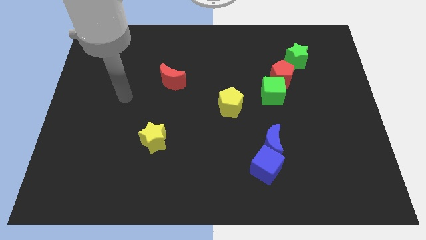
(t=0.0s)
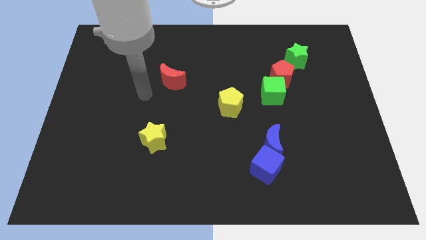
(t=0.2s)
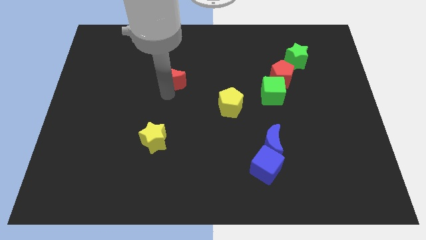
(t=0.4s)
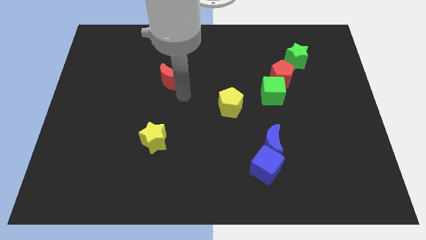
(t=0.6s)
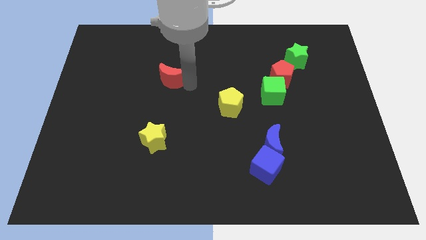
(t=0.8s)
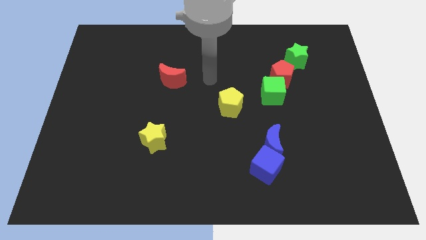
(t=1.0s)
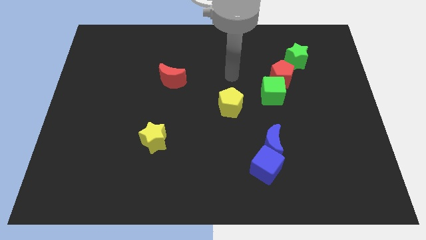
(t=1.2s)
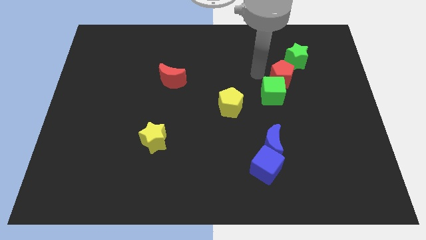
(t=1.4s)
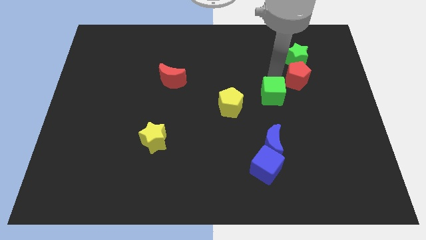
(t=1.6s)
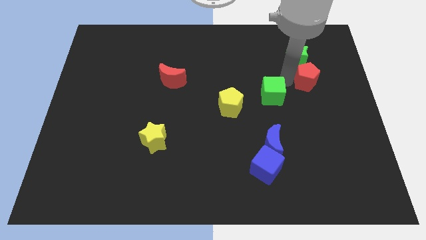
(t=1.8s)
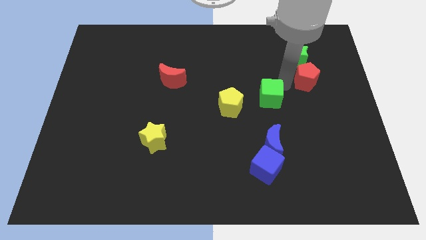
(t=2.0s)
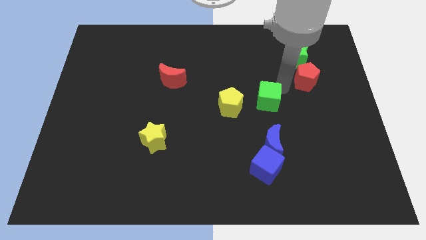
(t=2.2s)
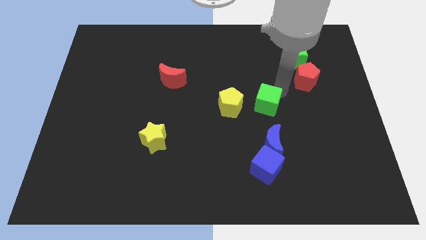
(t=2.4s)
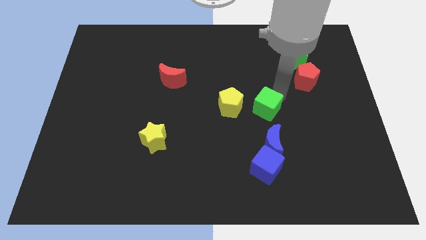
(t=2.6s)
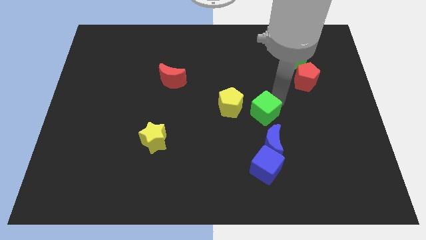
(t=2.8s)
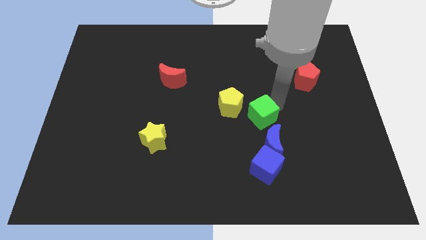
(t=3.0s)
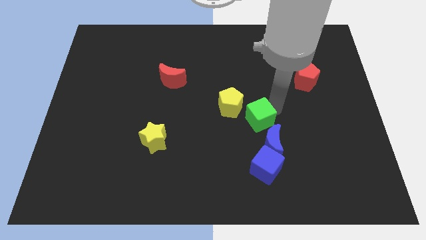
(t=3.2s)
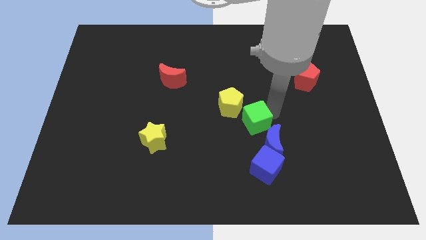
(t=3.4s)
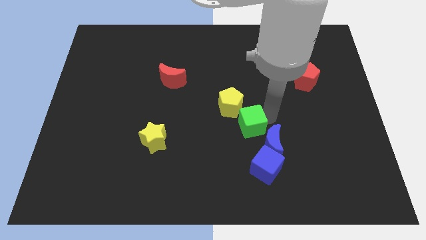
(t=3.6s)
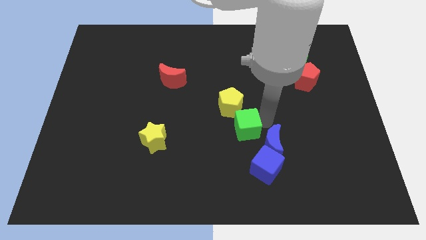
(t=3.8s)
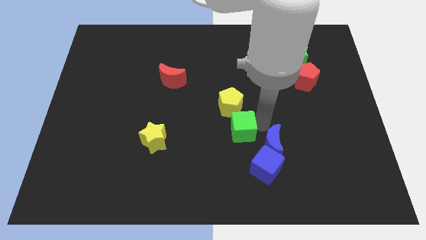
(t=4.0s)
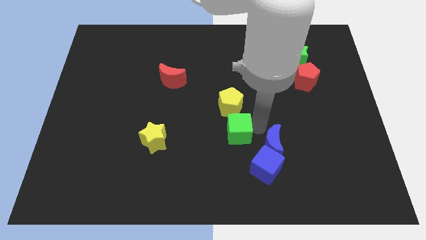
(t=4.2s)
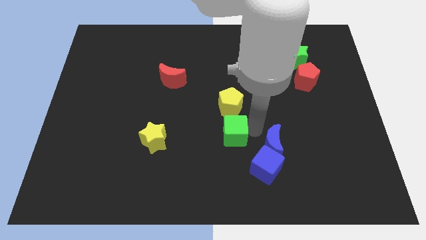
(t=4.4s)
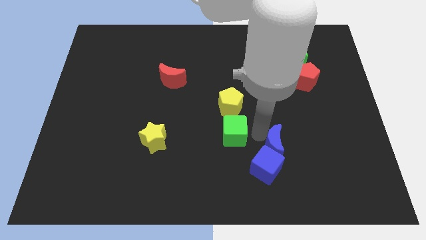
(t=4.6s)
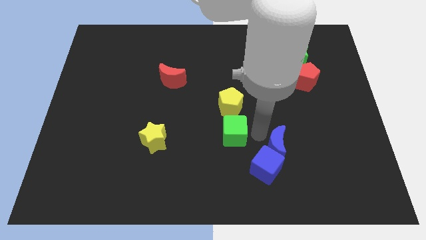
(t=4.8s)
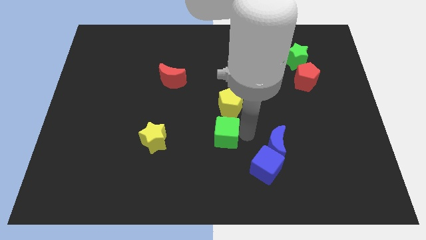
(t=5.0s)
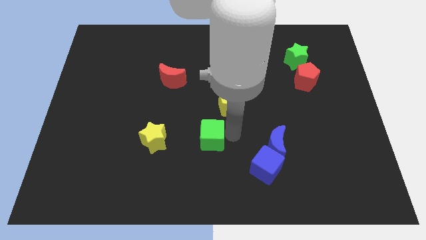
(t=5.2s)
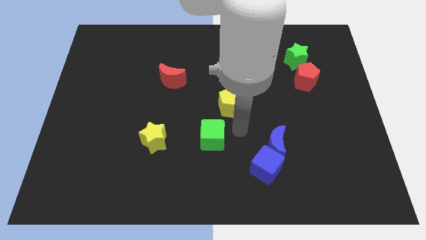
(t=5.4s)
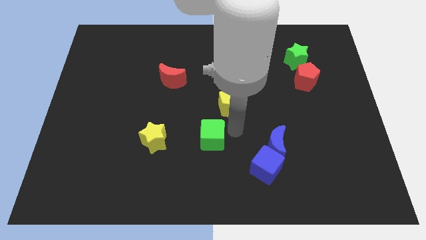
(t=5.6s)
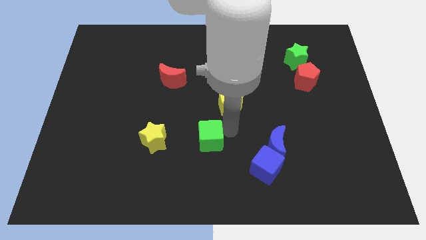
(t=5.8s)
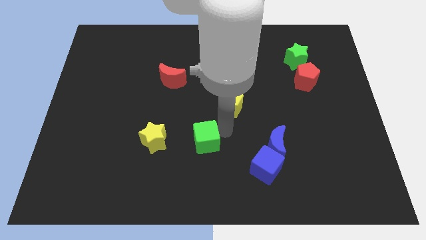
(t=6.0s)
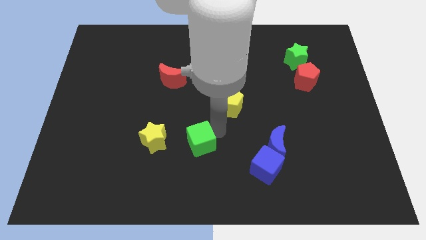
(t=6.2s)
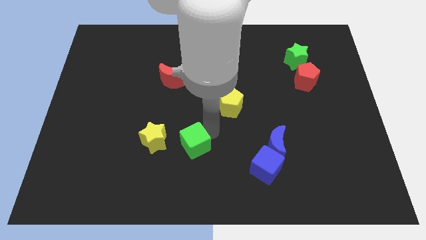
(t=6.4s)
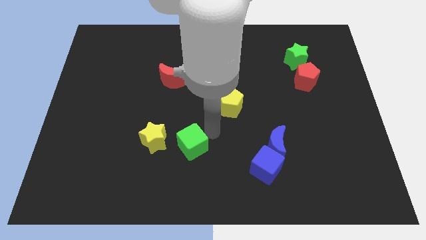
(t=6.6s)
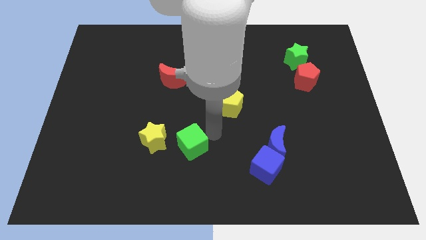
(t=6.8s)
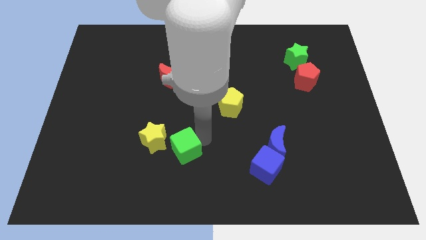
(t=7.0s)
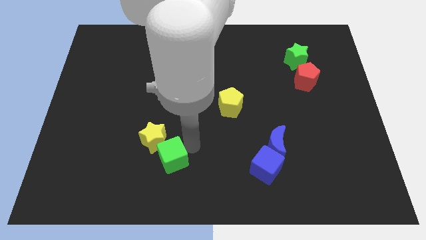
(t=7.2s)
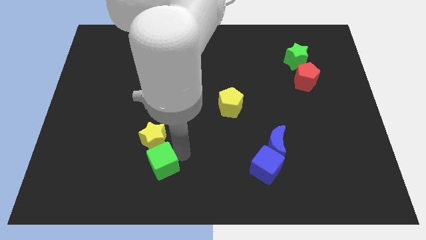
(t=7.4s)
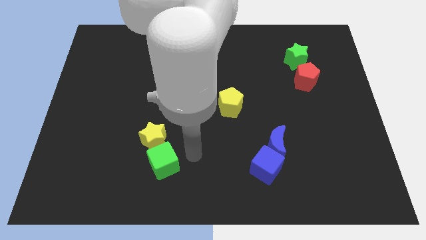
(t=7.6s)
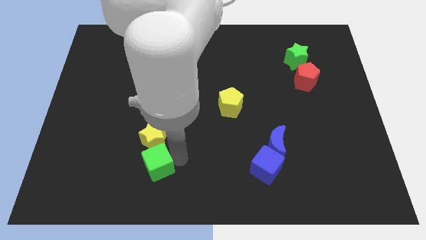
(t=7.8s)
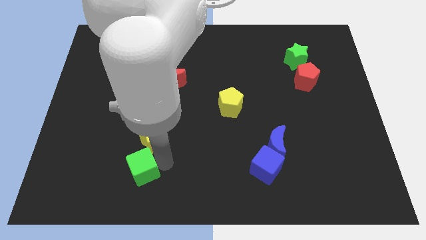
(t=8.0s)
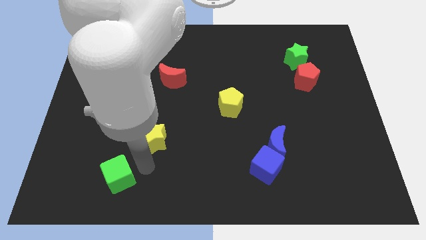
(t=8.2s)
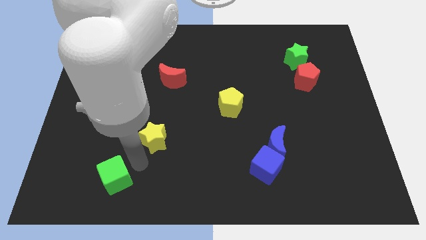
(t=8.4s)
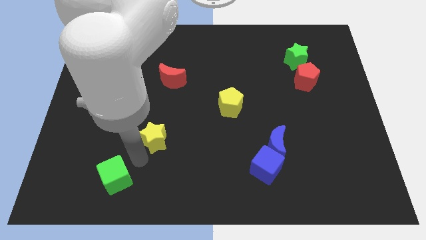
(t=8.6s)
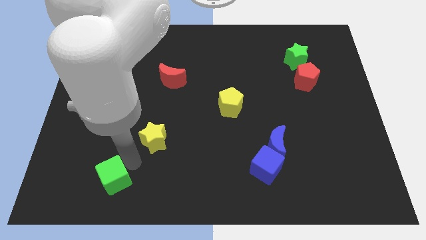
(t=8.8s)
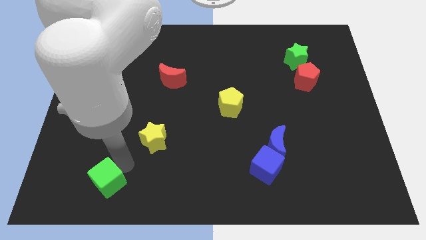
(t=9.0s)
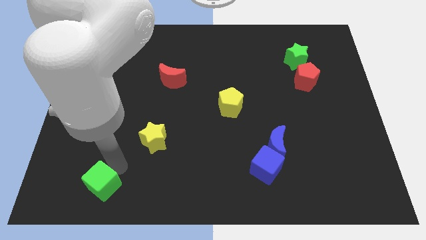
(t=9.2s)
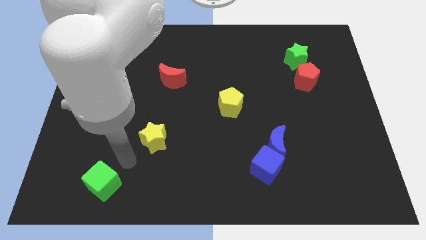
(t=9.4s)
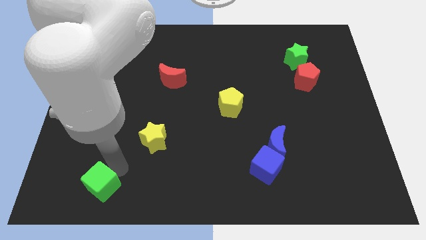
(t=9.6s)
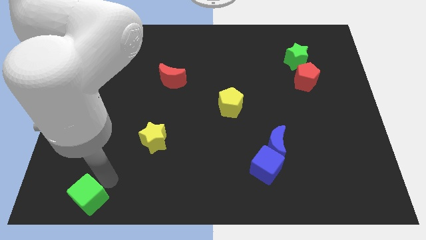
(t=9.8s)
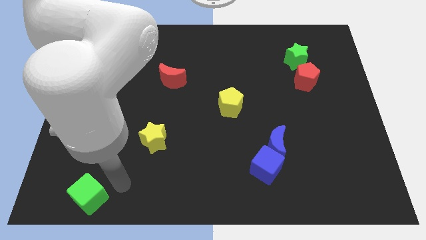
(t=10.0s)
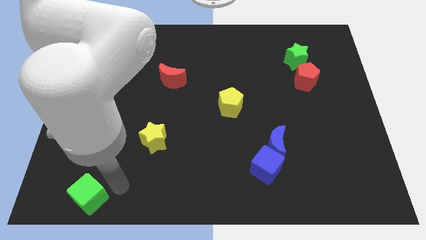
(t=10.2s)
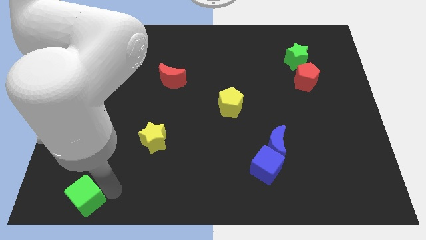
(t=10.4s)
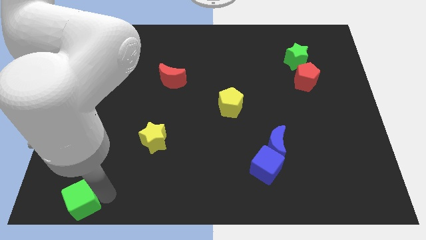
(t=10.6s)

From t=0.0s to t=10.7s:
put the green cube to the bottom left of the board

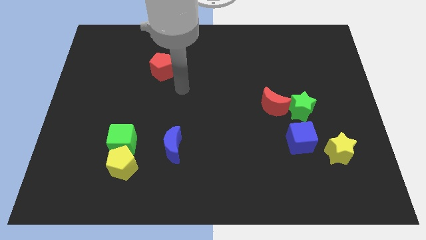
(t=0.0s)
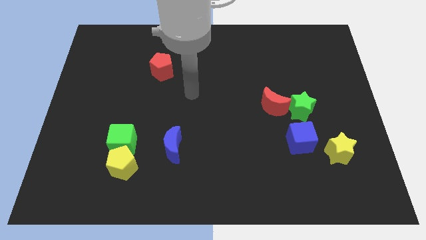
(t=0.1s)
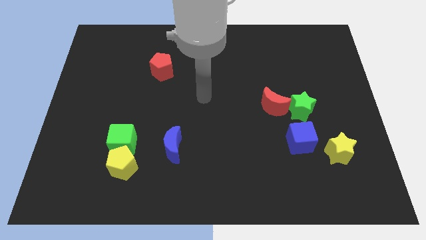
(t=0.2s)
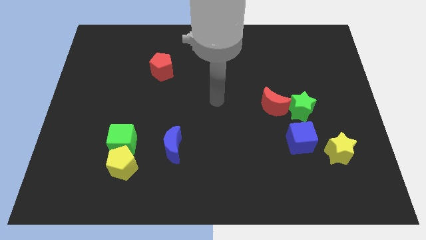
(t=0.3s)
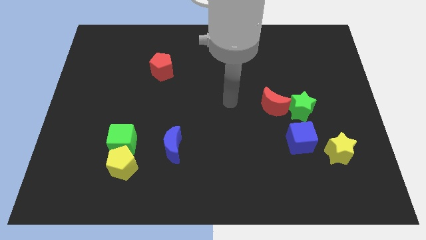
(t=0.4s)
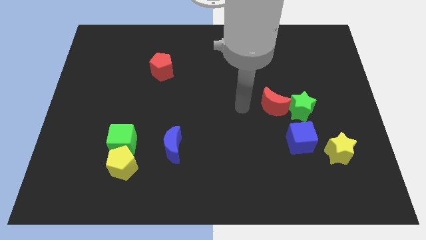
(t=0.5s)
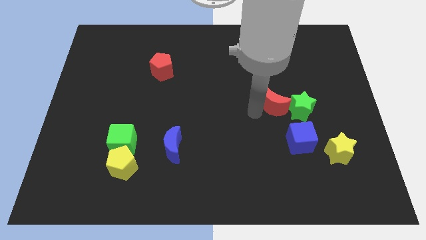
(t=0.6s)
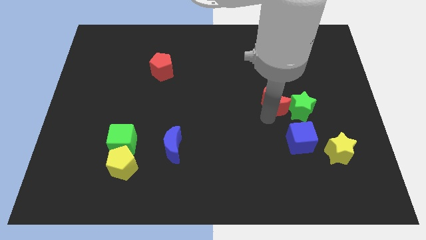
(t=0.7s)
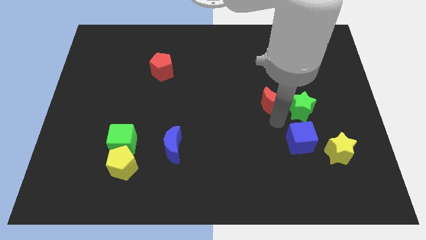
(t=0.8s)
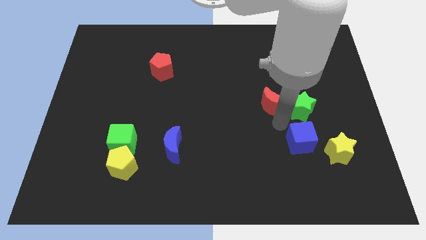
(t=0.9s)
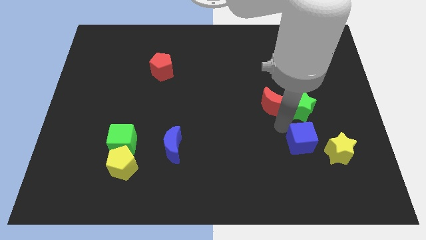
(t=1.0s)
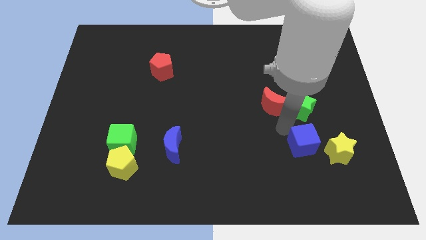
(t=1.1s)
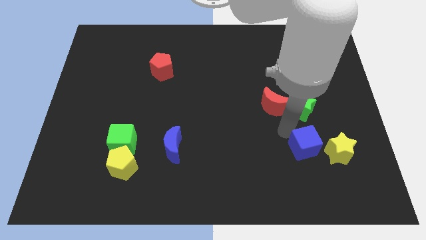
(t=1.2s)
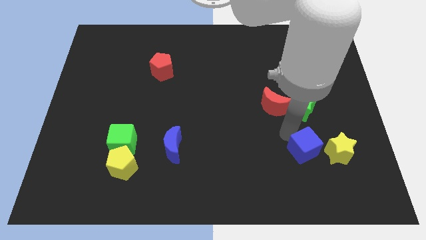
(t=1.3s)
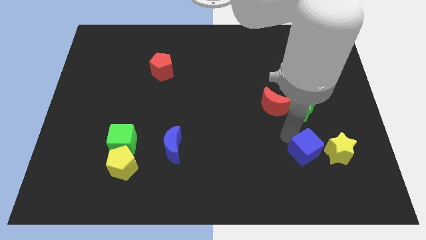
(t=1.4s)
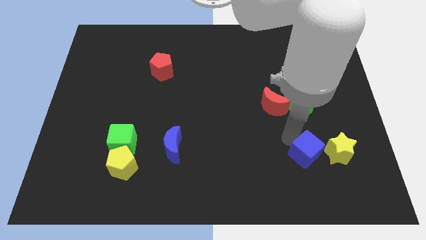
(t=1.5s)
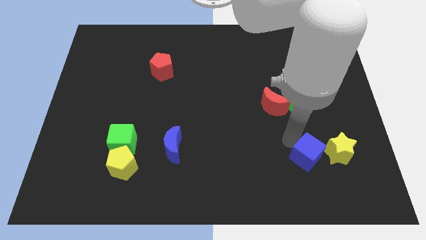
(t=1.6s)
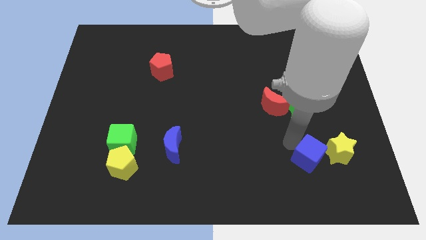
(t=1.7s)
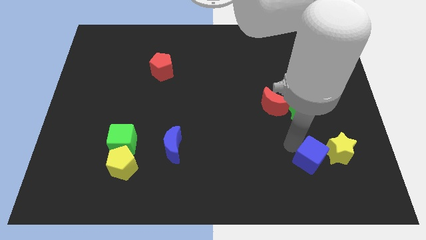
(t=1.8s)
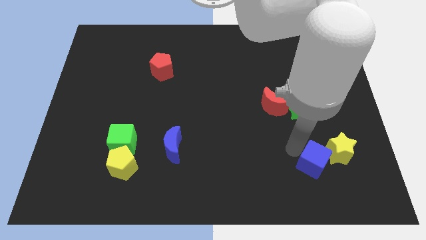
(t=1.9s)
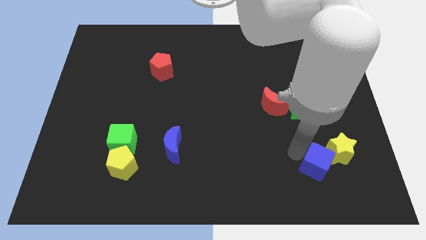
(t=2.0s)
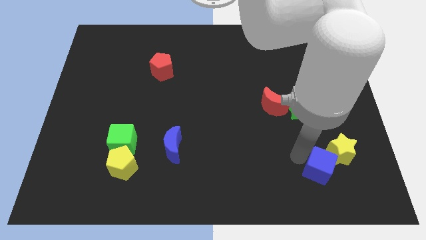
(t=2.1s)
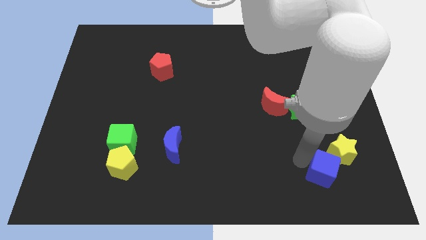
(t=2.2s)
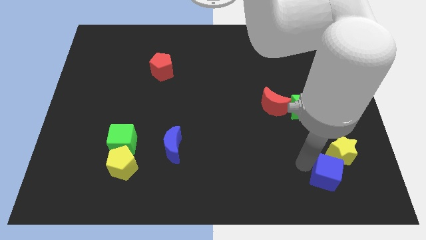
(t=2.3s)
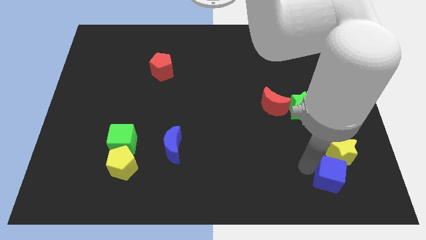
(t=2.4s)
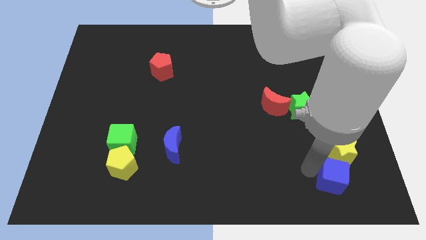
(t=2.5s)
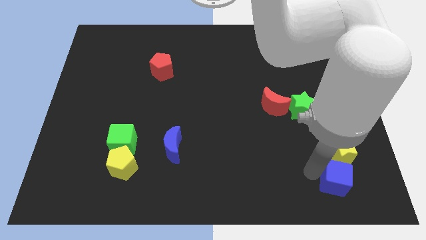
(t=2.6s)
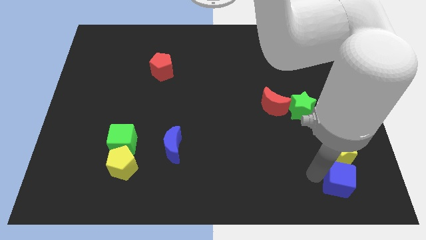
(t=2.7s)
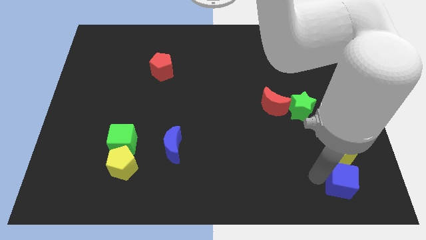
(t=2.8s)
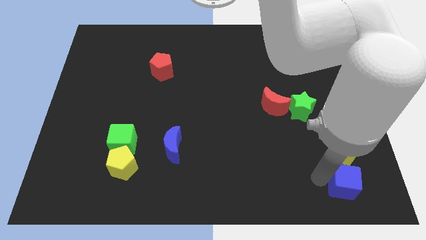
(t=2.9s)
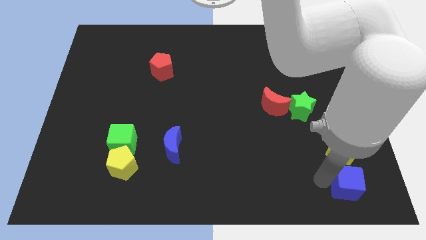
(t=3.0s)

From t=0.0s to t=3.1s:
slide the blue cube to the bottom right corner
